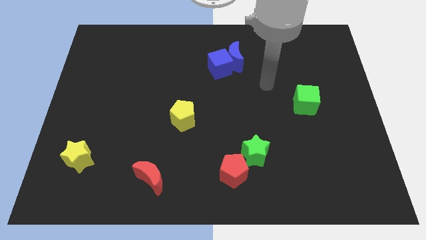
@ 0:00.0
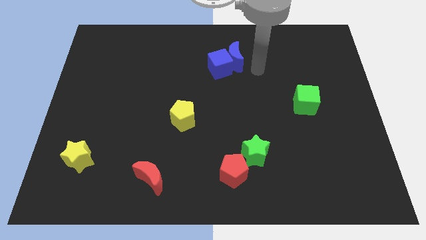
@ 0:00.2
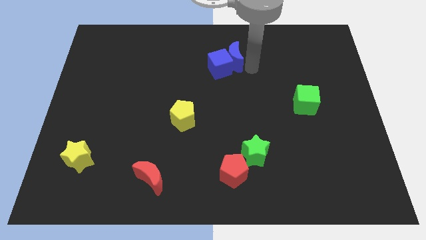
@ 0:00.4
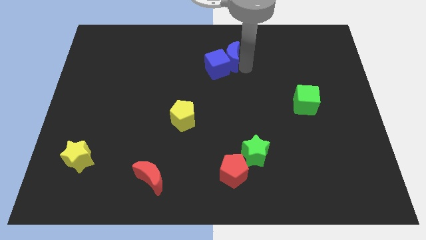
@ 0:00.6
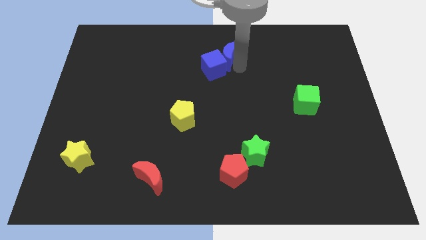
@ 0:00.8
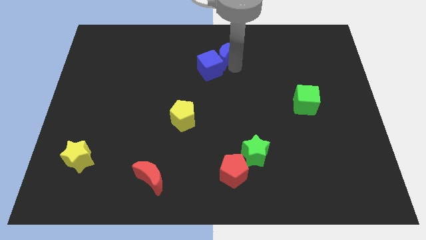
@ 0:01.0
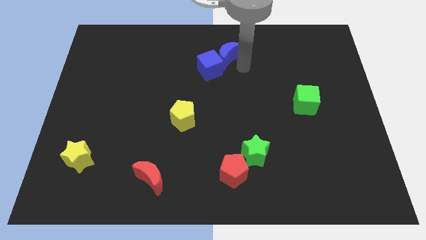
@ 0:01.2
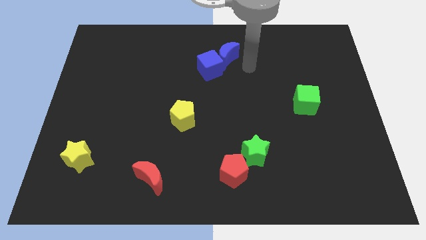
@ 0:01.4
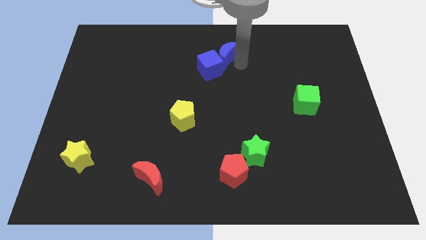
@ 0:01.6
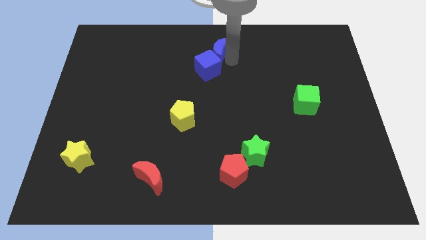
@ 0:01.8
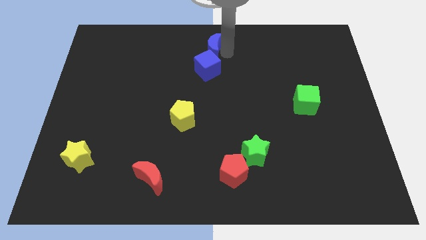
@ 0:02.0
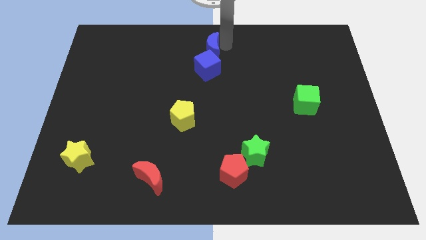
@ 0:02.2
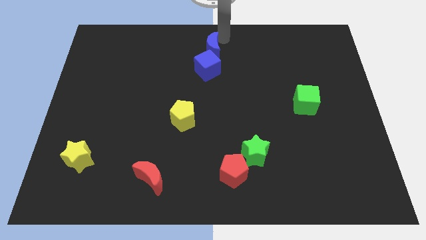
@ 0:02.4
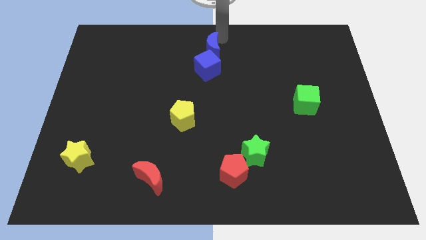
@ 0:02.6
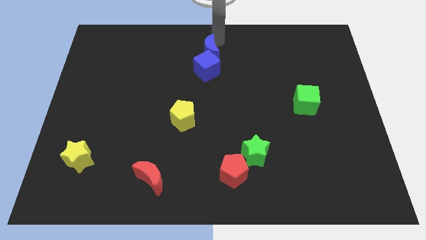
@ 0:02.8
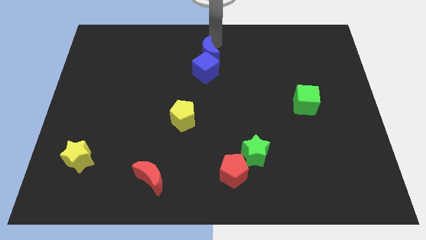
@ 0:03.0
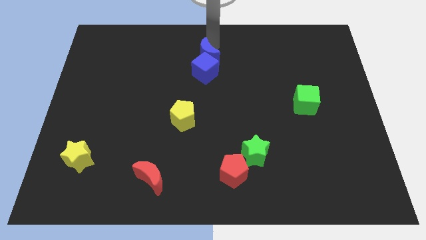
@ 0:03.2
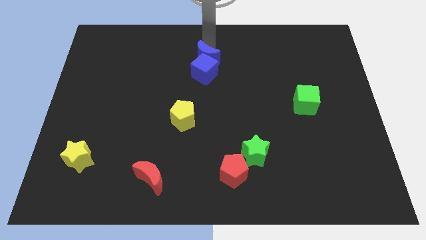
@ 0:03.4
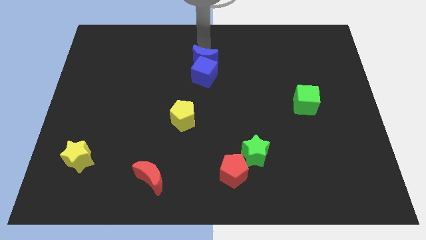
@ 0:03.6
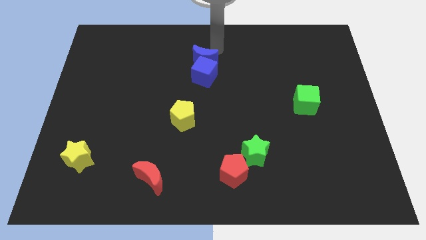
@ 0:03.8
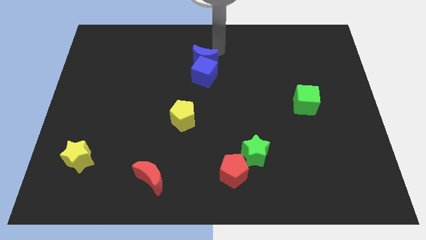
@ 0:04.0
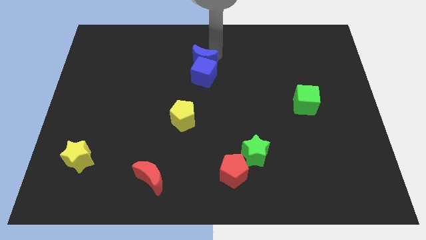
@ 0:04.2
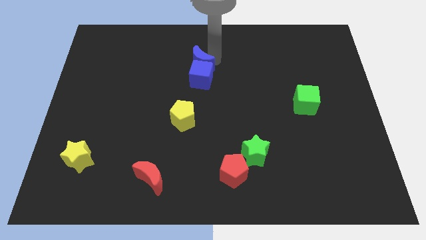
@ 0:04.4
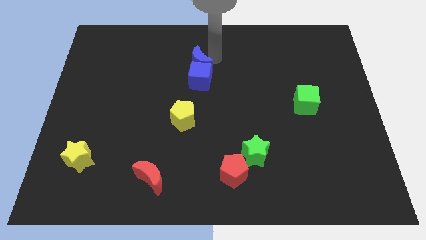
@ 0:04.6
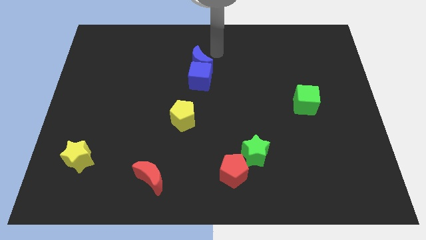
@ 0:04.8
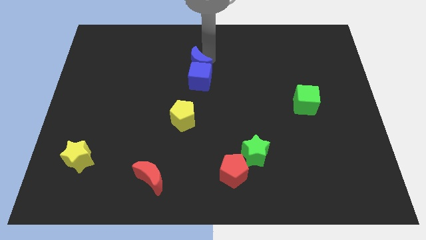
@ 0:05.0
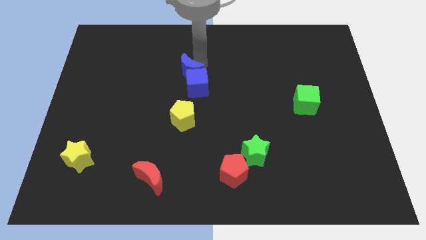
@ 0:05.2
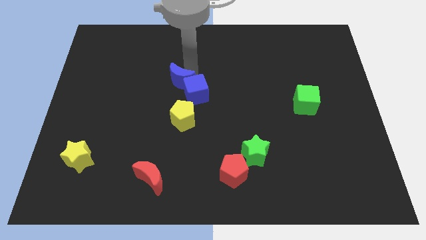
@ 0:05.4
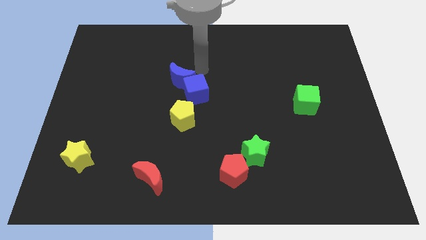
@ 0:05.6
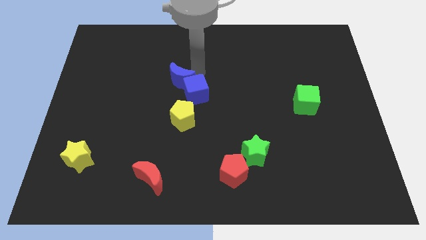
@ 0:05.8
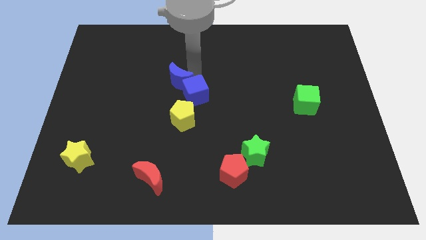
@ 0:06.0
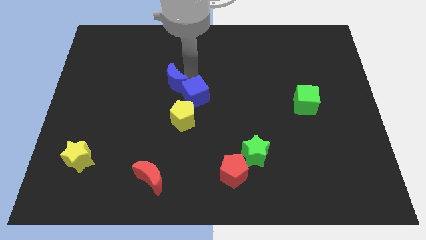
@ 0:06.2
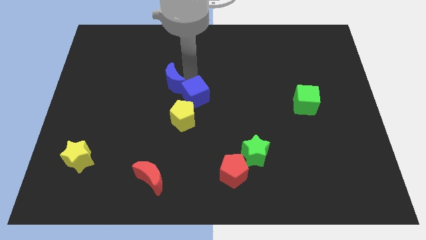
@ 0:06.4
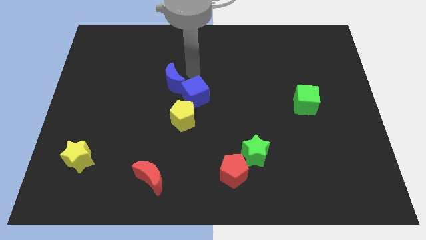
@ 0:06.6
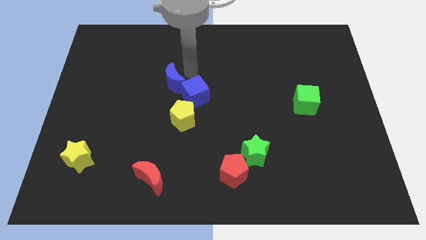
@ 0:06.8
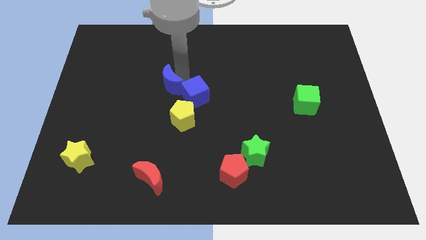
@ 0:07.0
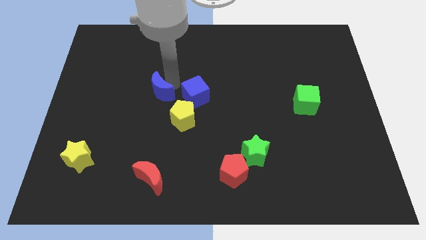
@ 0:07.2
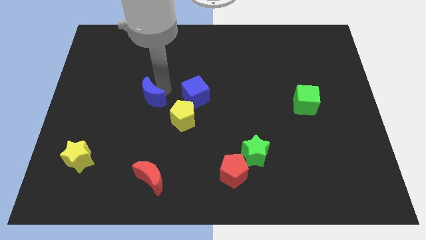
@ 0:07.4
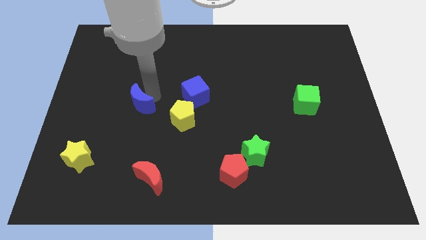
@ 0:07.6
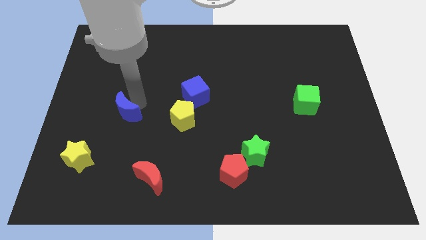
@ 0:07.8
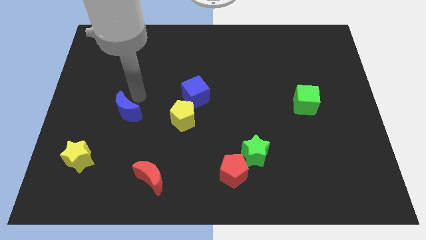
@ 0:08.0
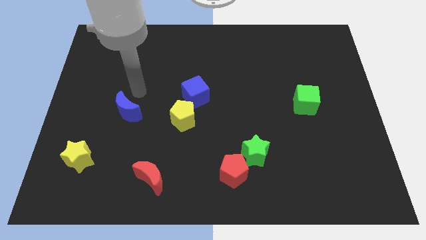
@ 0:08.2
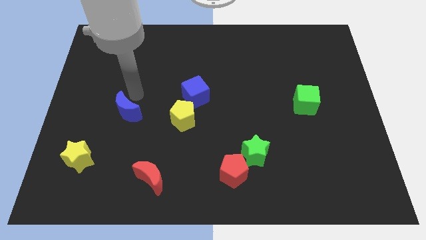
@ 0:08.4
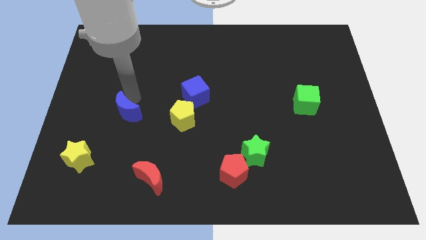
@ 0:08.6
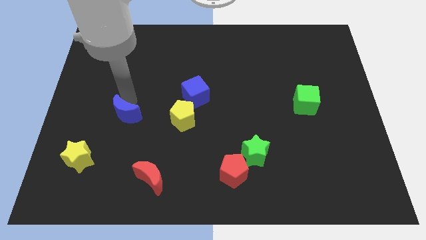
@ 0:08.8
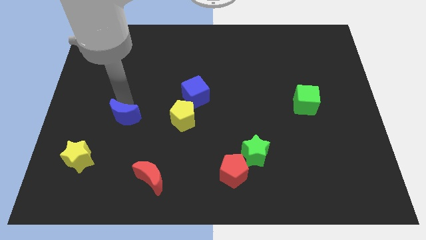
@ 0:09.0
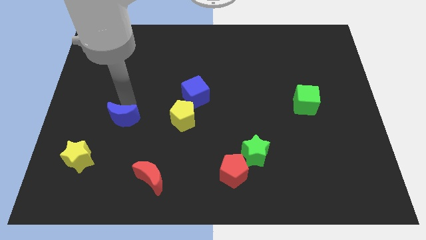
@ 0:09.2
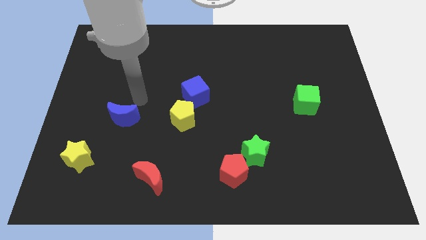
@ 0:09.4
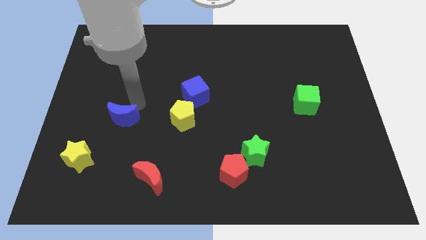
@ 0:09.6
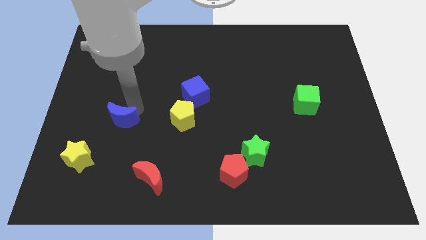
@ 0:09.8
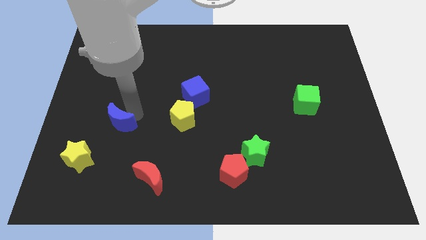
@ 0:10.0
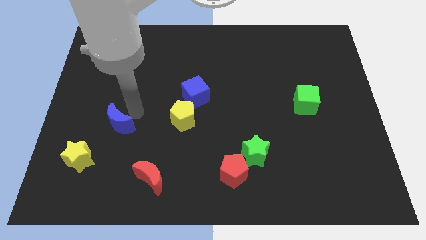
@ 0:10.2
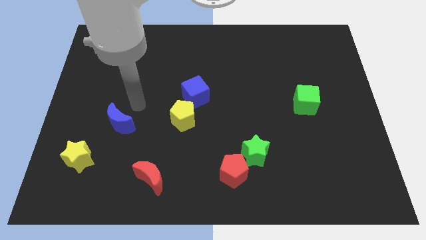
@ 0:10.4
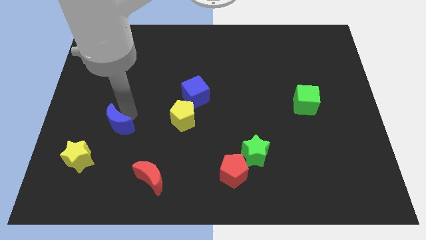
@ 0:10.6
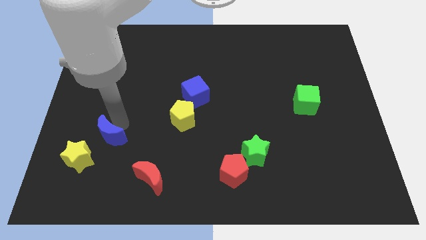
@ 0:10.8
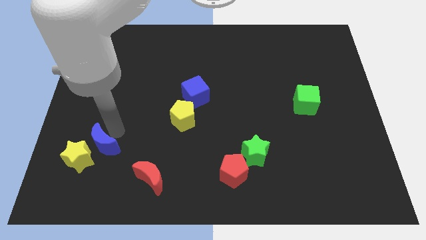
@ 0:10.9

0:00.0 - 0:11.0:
push the blue moon towards the yellow star

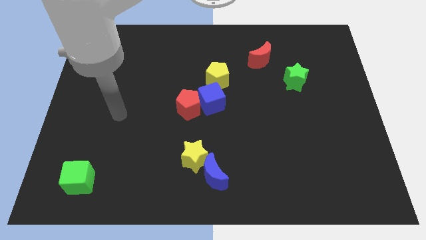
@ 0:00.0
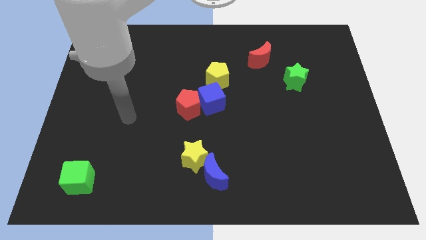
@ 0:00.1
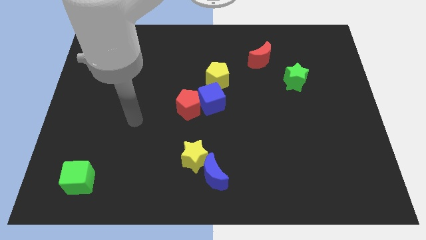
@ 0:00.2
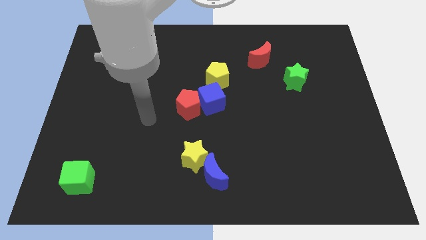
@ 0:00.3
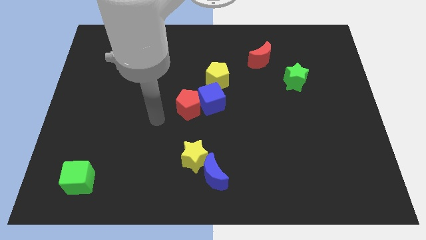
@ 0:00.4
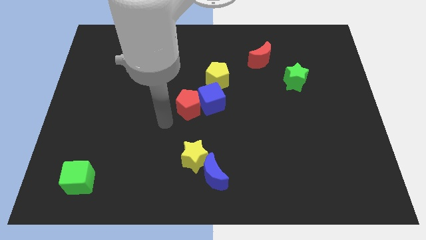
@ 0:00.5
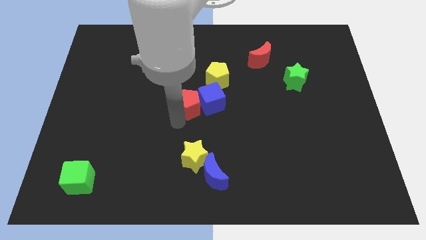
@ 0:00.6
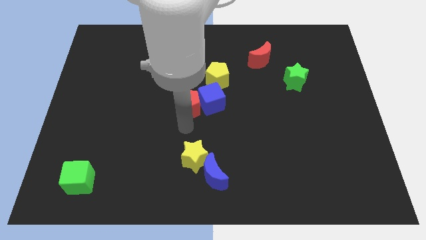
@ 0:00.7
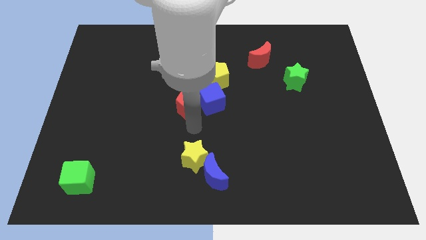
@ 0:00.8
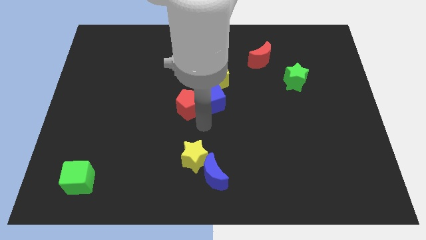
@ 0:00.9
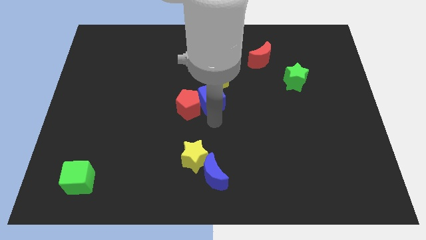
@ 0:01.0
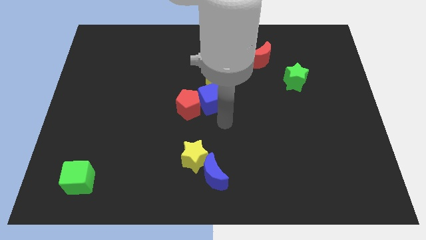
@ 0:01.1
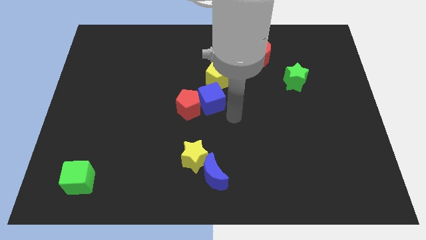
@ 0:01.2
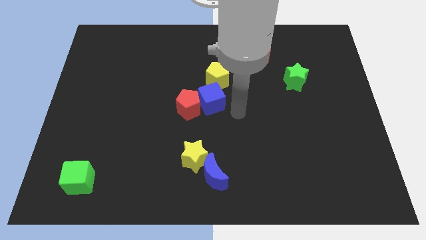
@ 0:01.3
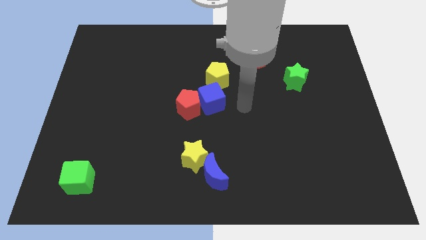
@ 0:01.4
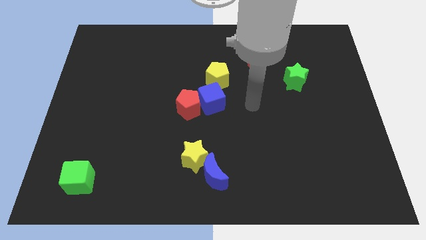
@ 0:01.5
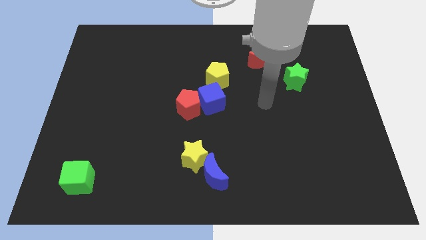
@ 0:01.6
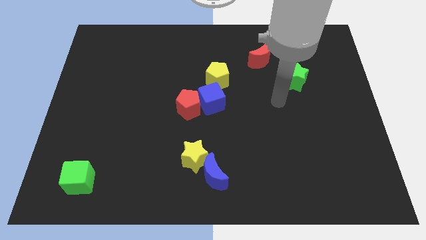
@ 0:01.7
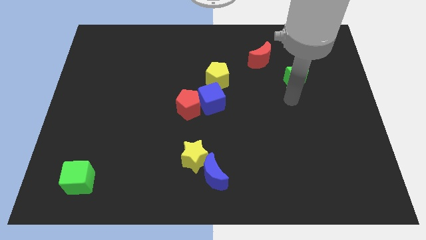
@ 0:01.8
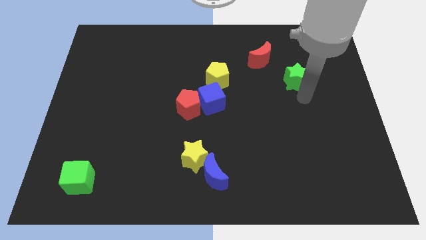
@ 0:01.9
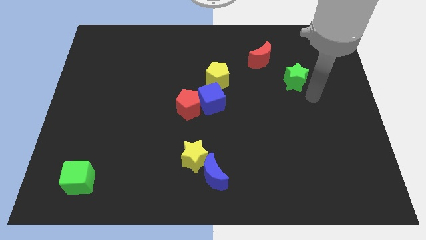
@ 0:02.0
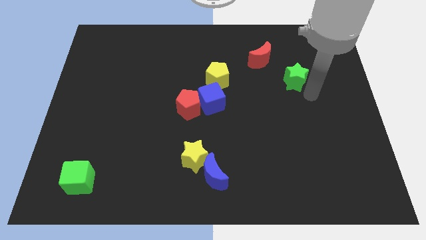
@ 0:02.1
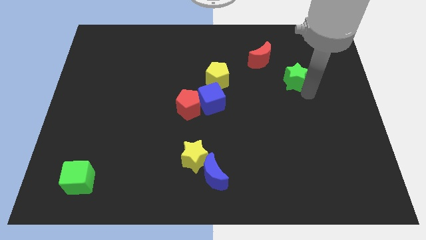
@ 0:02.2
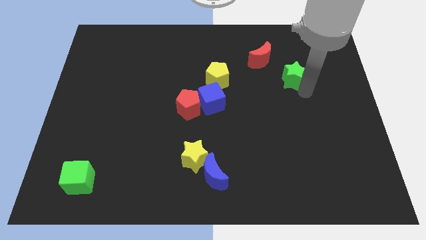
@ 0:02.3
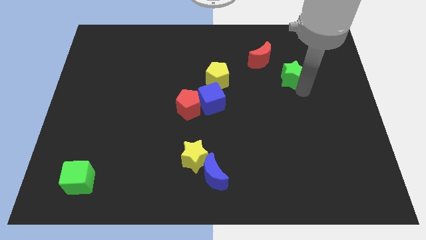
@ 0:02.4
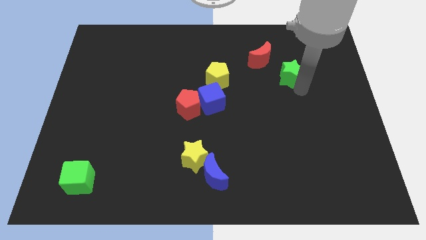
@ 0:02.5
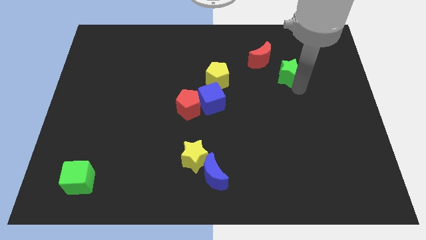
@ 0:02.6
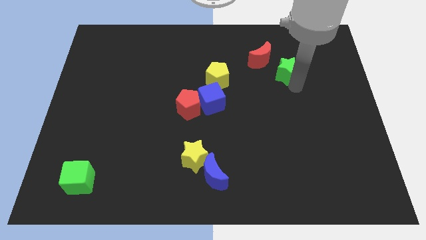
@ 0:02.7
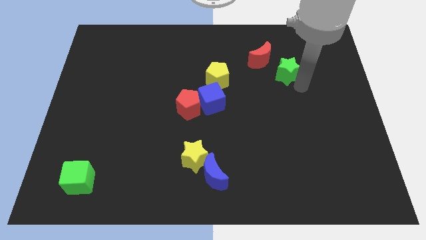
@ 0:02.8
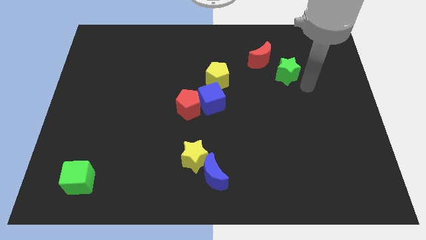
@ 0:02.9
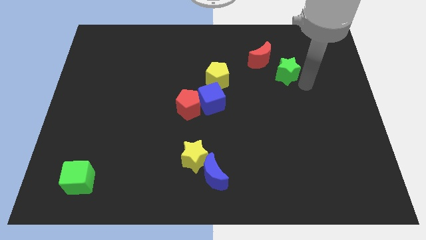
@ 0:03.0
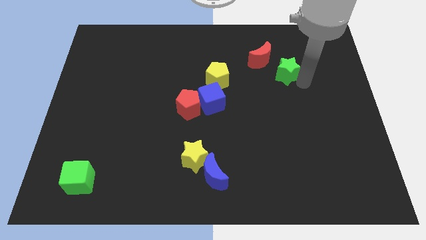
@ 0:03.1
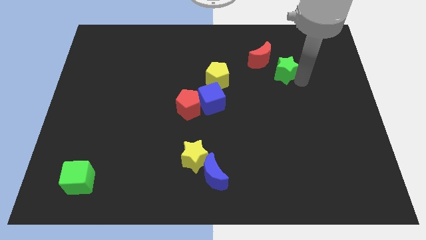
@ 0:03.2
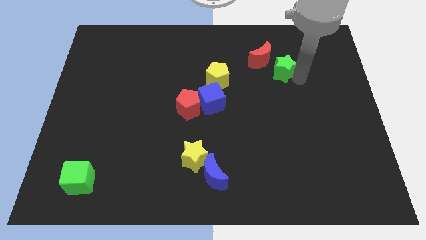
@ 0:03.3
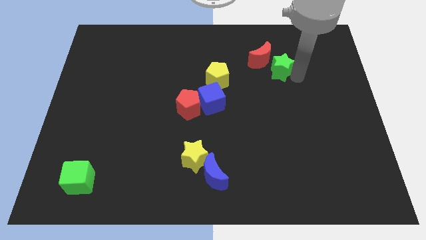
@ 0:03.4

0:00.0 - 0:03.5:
put the green star close to the red moon
